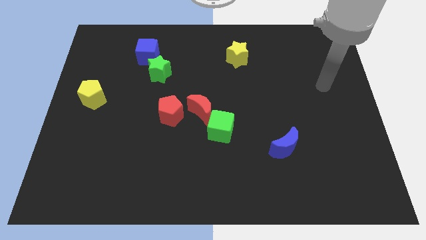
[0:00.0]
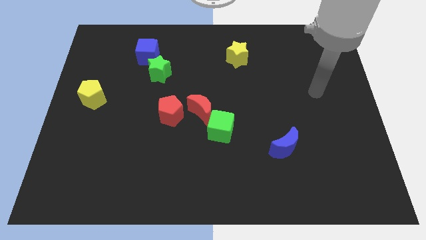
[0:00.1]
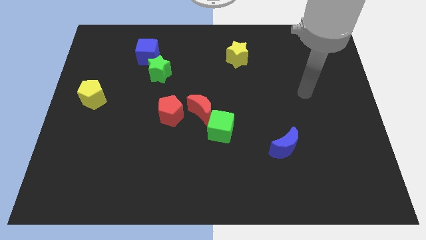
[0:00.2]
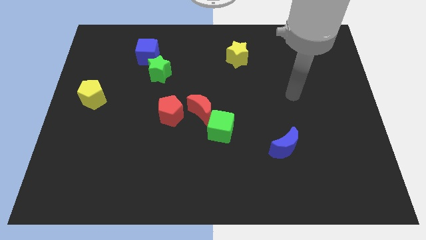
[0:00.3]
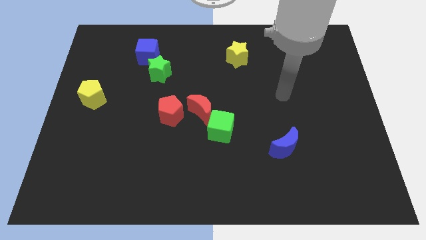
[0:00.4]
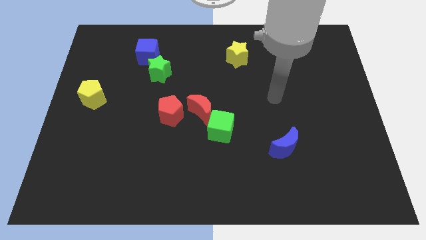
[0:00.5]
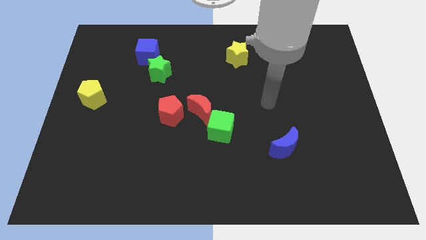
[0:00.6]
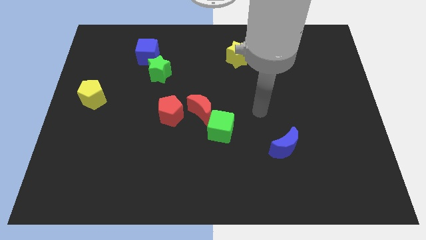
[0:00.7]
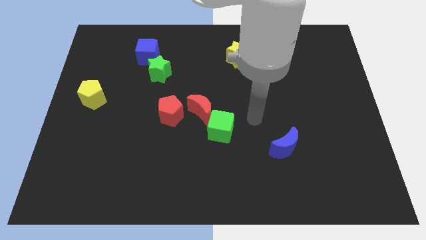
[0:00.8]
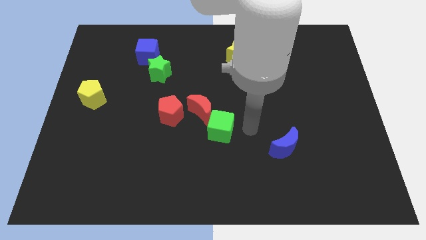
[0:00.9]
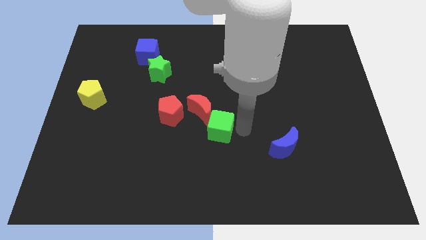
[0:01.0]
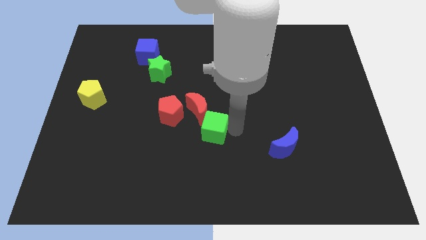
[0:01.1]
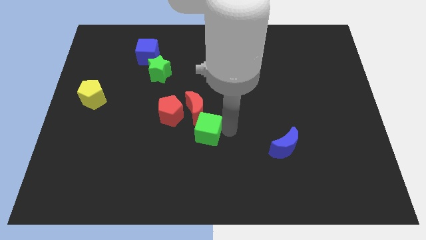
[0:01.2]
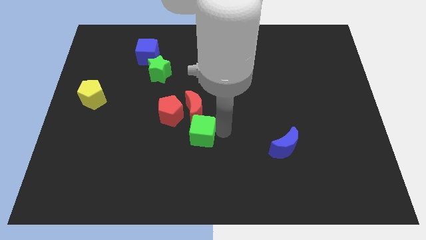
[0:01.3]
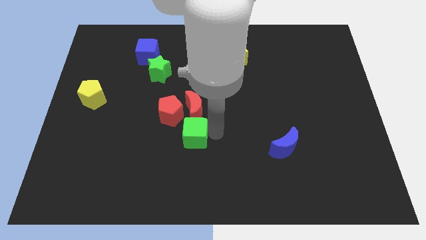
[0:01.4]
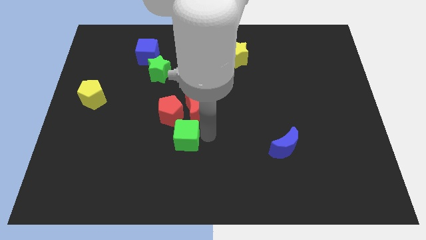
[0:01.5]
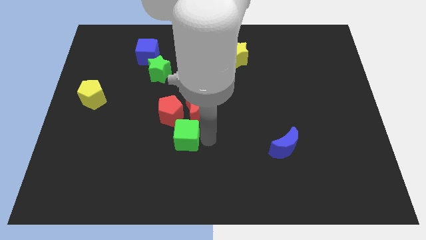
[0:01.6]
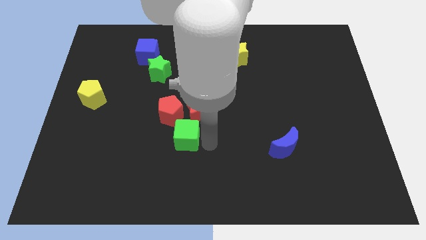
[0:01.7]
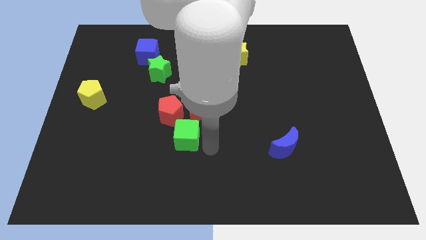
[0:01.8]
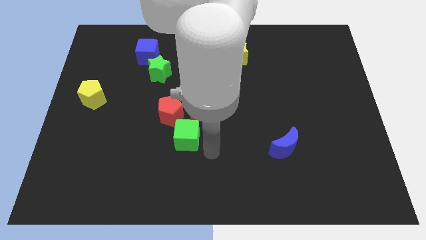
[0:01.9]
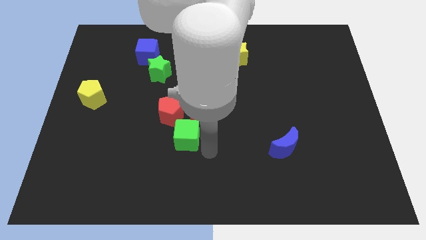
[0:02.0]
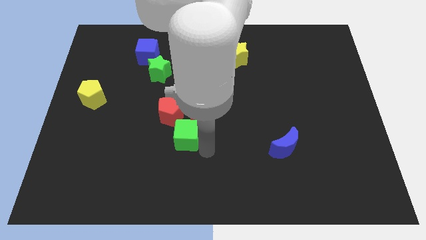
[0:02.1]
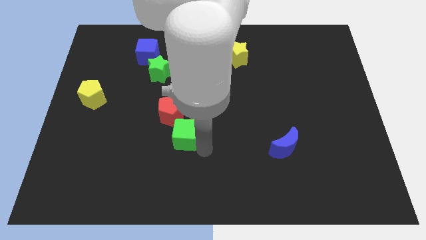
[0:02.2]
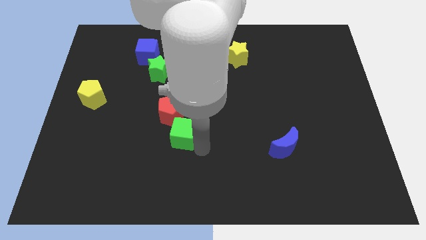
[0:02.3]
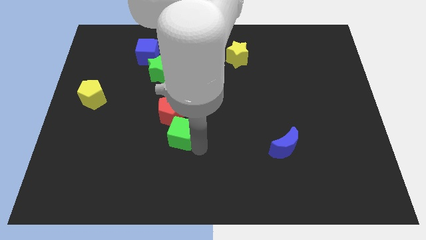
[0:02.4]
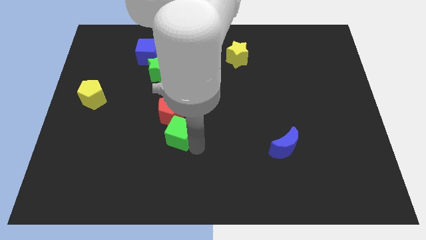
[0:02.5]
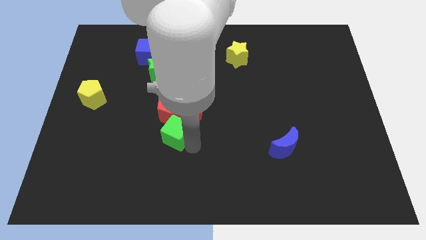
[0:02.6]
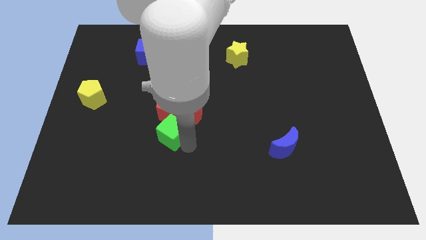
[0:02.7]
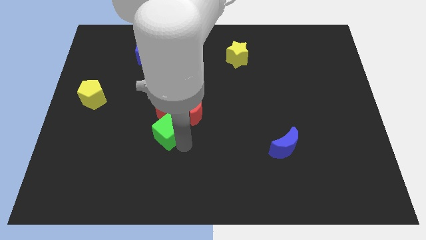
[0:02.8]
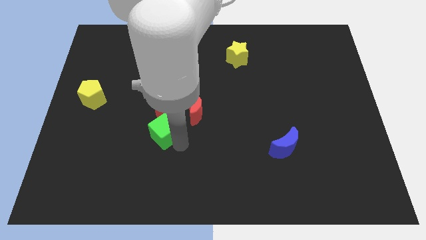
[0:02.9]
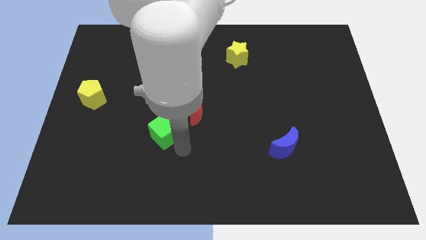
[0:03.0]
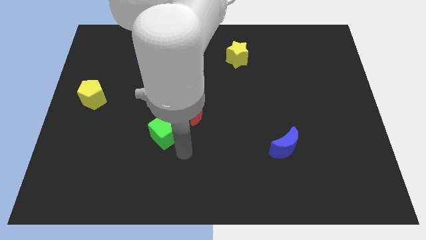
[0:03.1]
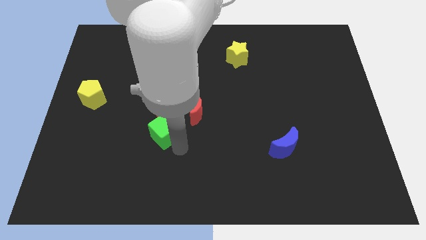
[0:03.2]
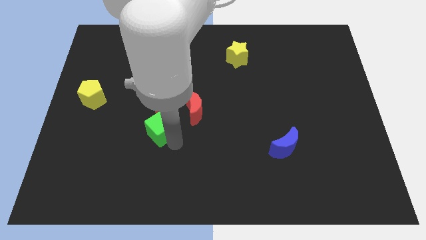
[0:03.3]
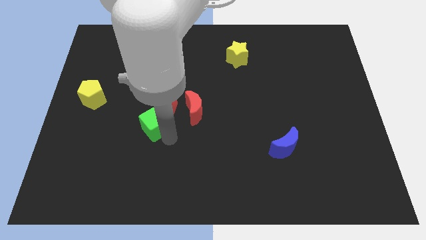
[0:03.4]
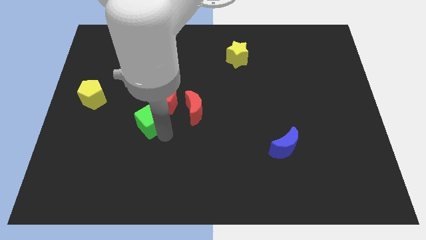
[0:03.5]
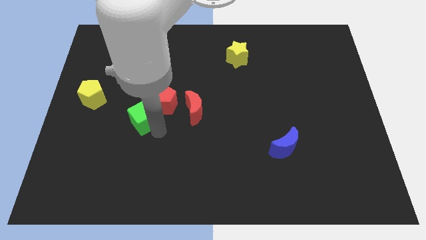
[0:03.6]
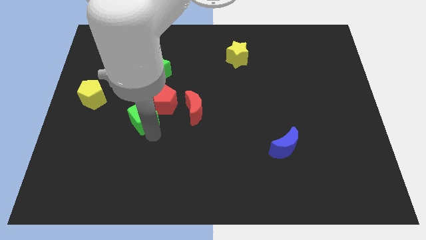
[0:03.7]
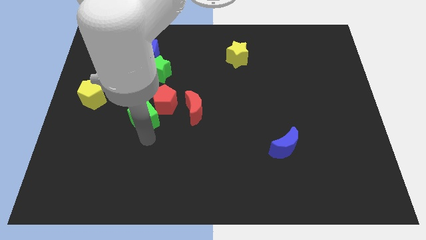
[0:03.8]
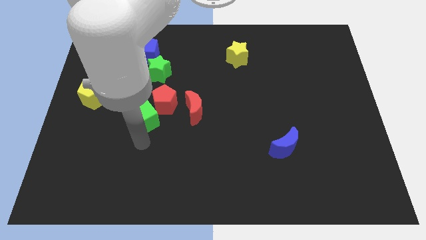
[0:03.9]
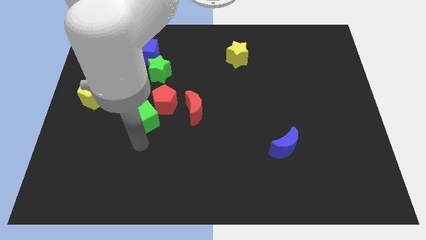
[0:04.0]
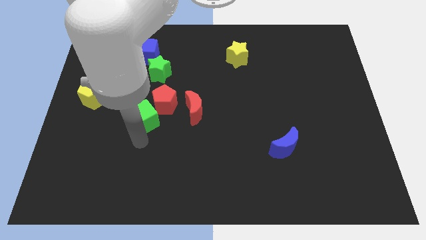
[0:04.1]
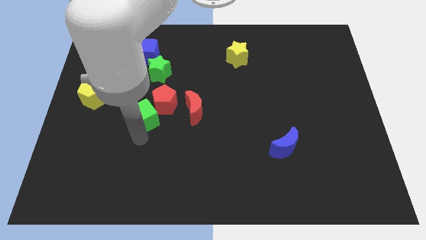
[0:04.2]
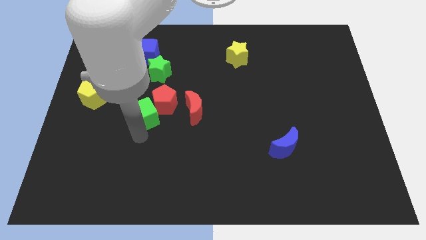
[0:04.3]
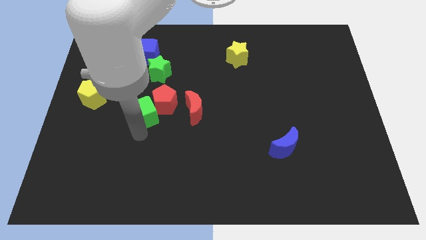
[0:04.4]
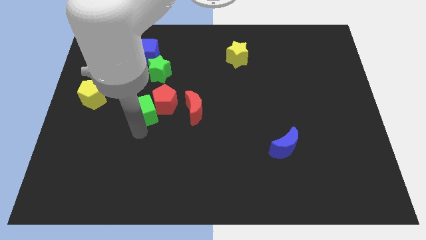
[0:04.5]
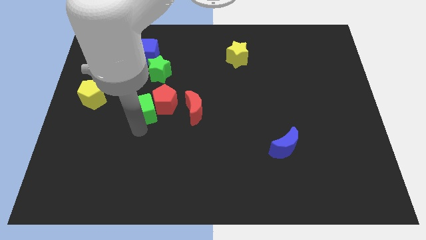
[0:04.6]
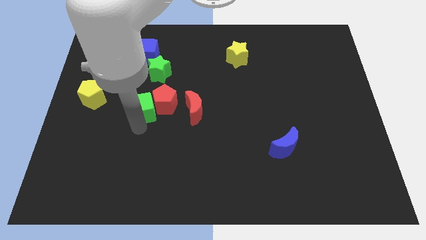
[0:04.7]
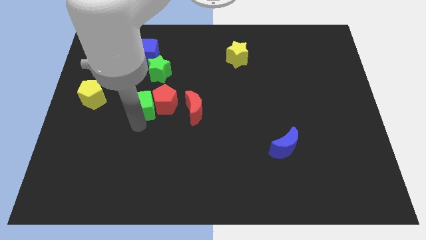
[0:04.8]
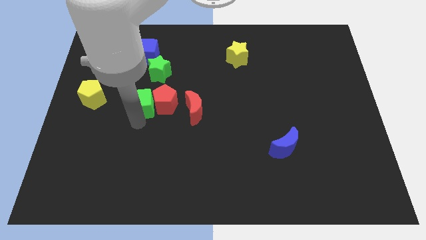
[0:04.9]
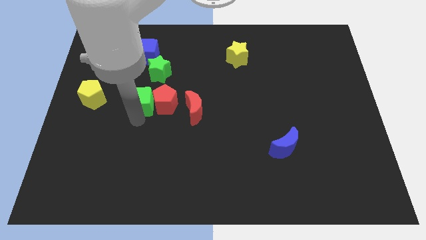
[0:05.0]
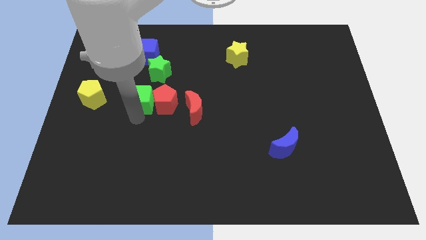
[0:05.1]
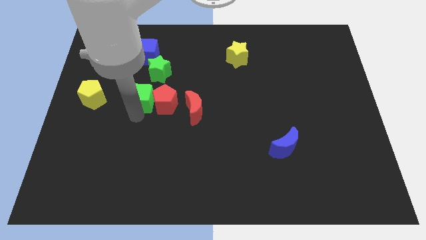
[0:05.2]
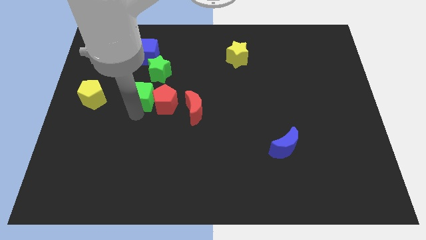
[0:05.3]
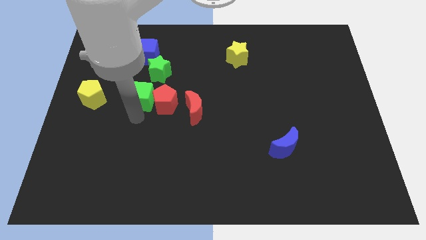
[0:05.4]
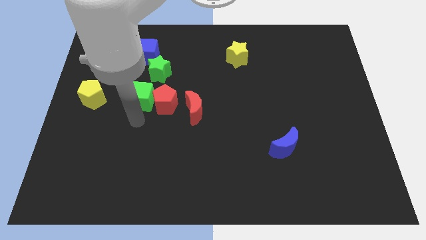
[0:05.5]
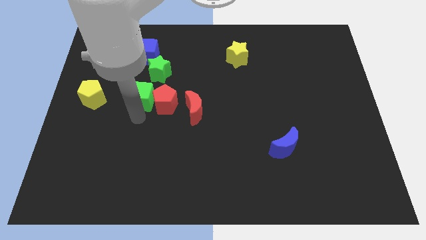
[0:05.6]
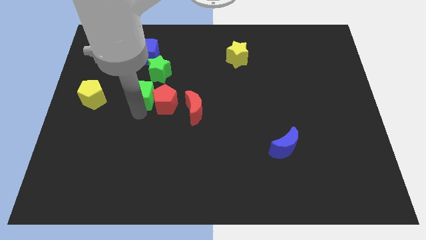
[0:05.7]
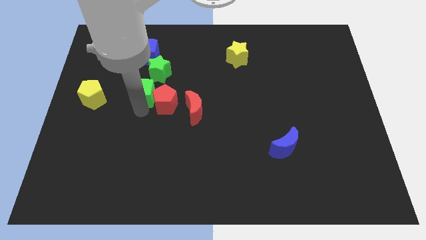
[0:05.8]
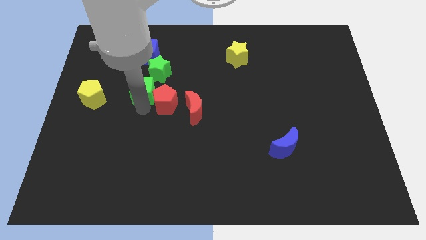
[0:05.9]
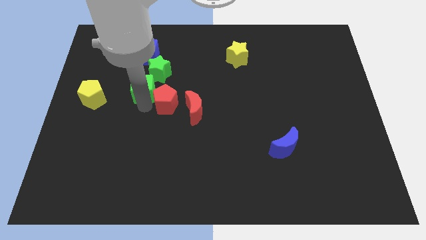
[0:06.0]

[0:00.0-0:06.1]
slide the green cube upwards and left

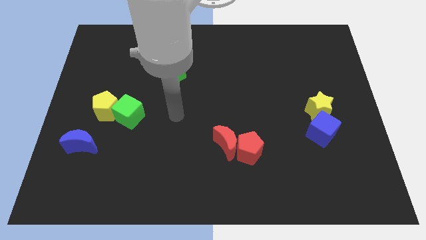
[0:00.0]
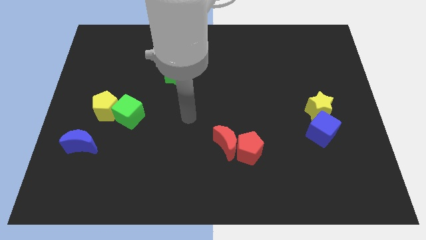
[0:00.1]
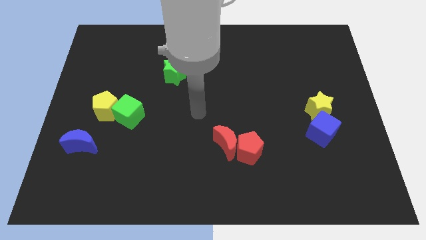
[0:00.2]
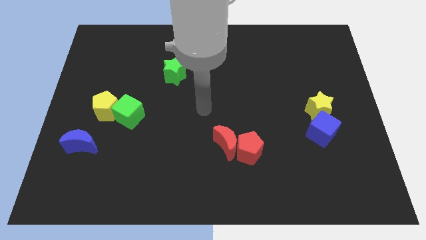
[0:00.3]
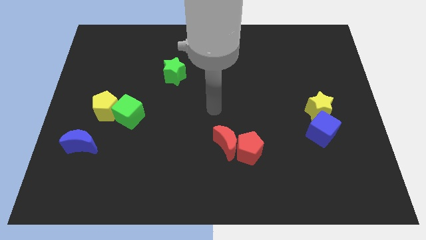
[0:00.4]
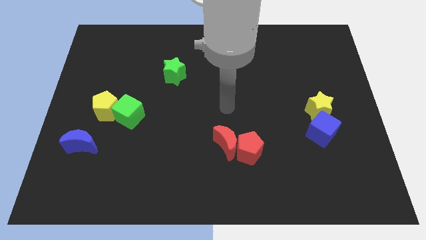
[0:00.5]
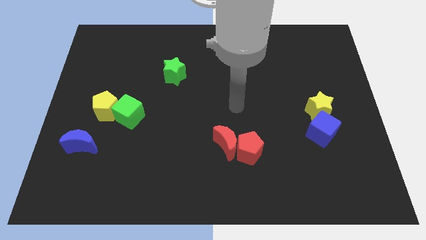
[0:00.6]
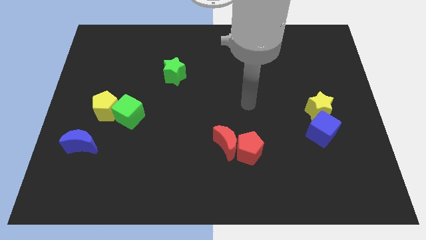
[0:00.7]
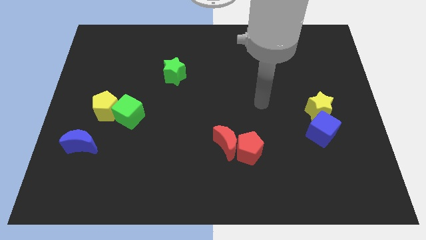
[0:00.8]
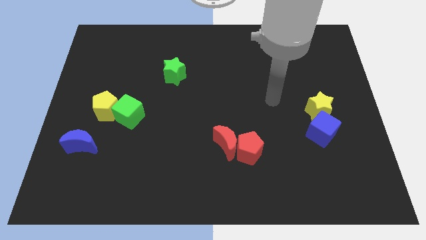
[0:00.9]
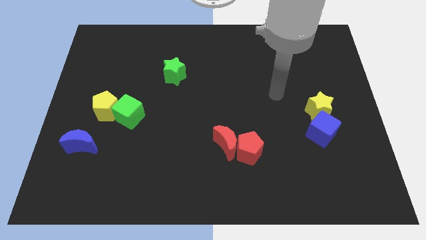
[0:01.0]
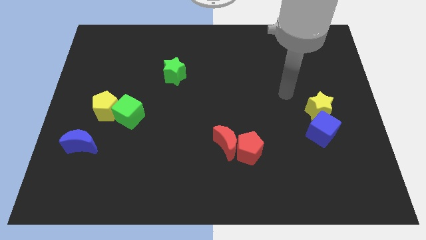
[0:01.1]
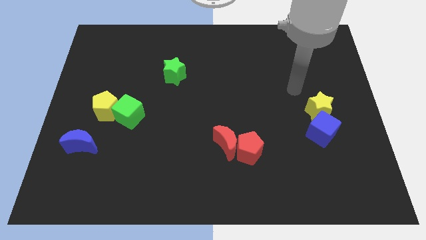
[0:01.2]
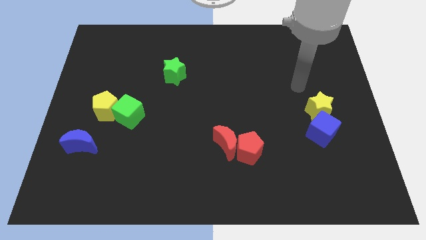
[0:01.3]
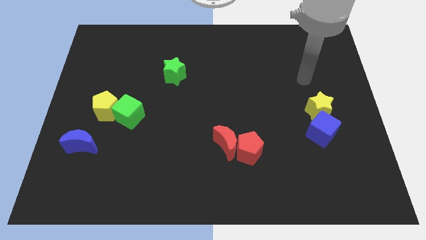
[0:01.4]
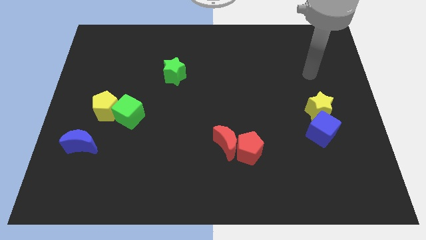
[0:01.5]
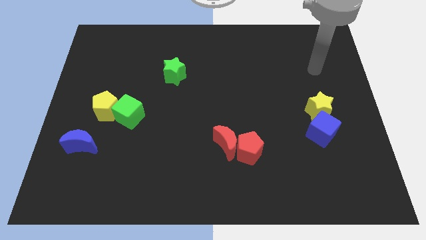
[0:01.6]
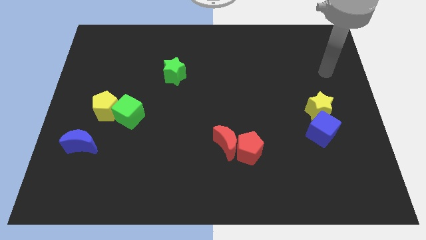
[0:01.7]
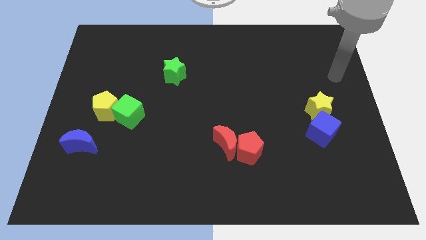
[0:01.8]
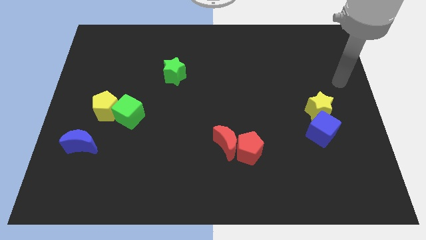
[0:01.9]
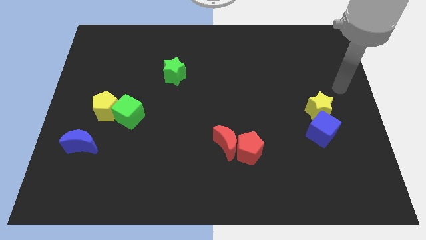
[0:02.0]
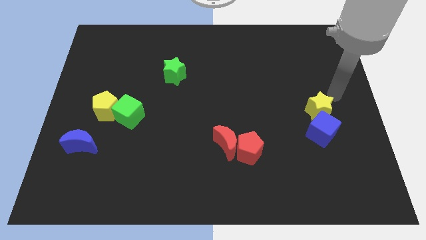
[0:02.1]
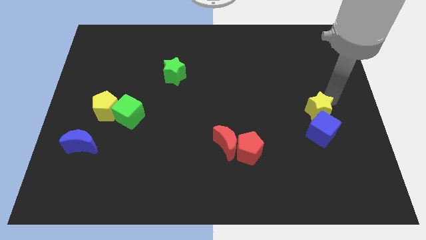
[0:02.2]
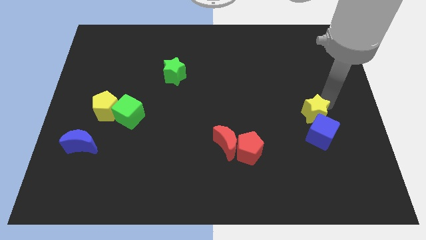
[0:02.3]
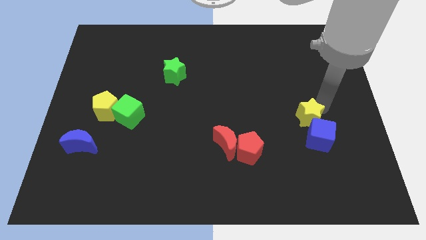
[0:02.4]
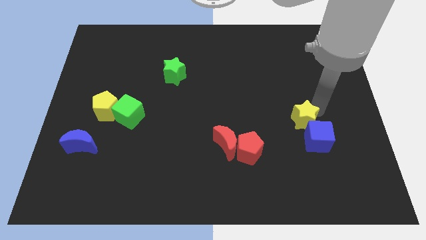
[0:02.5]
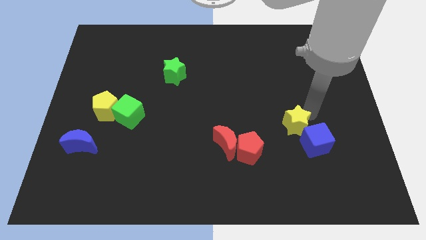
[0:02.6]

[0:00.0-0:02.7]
slightly move the yellow star down and to the left
